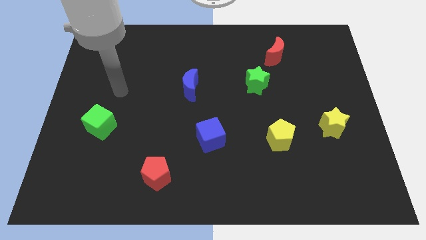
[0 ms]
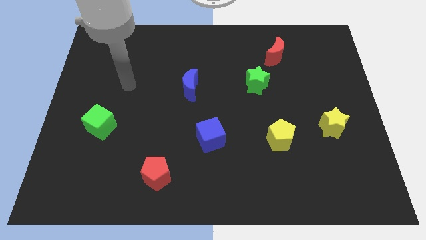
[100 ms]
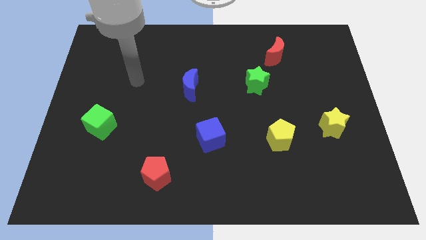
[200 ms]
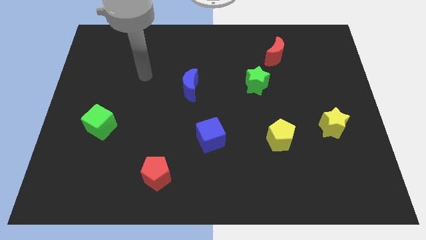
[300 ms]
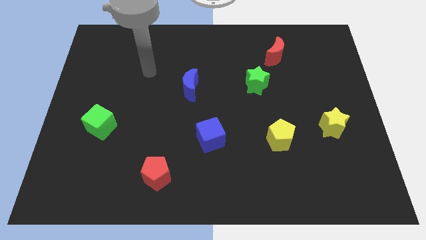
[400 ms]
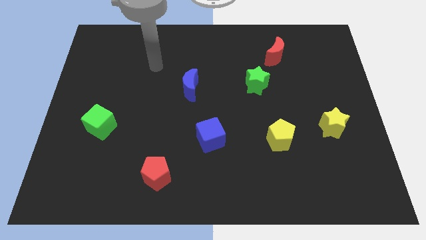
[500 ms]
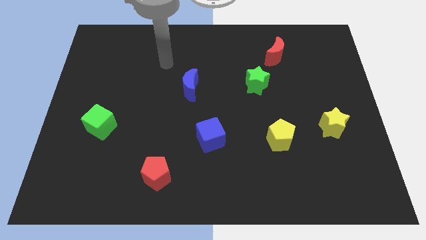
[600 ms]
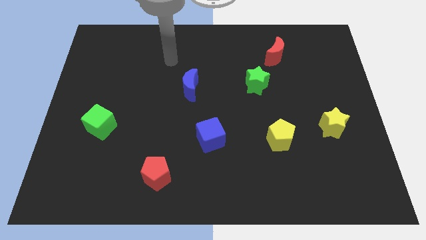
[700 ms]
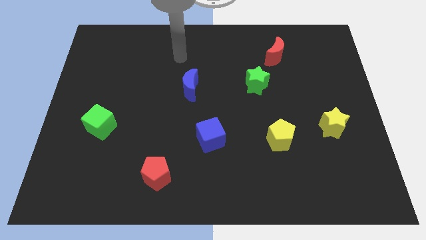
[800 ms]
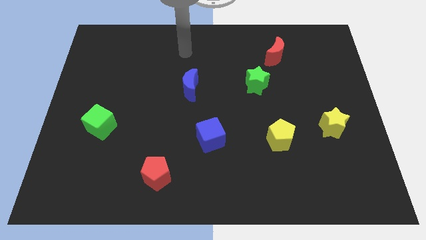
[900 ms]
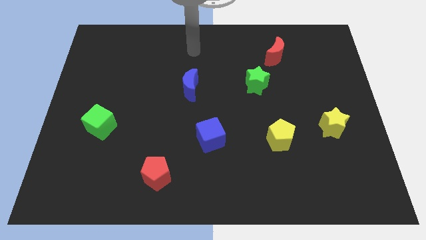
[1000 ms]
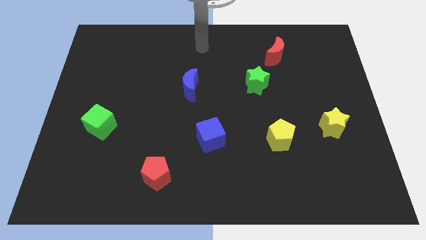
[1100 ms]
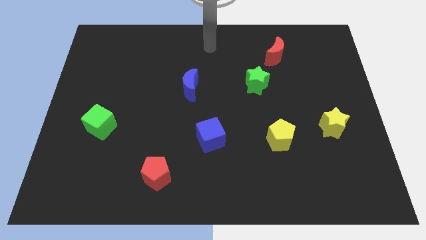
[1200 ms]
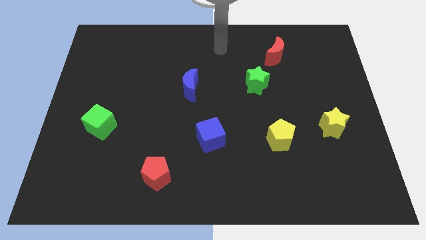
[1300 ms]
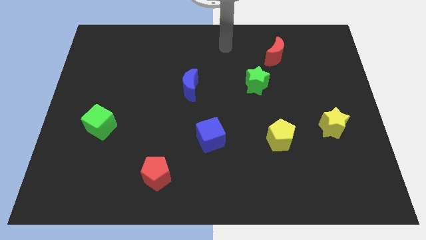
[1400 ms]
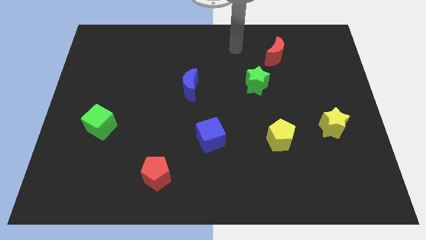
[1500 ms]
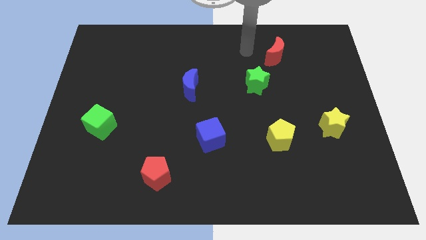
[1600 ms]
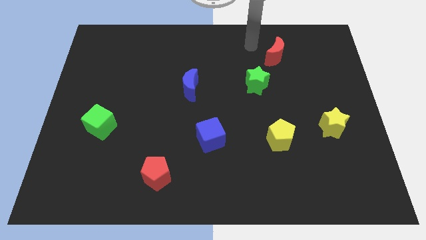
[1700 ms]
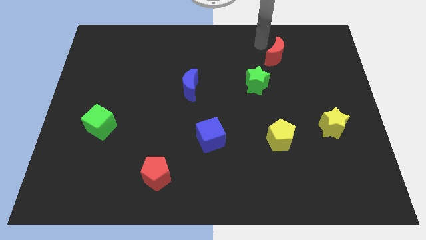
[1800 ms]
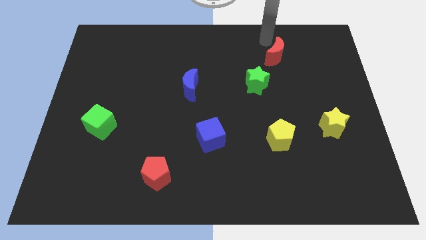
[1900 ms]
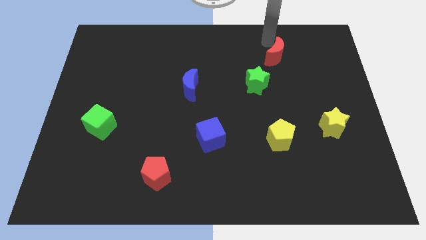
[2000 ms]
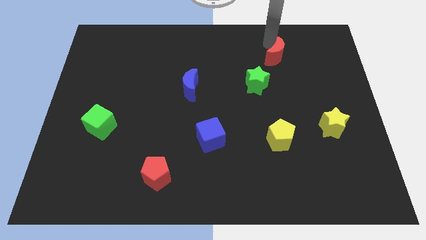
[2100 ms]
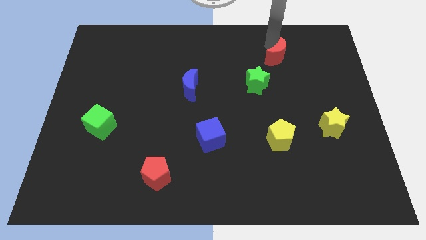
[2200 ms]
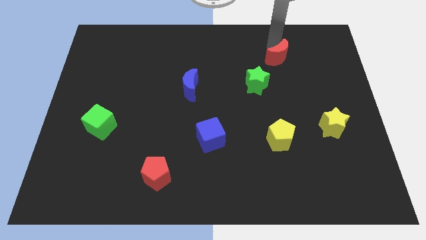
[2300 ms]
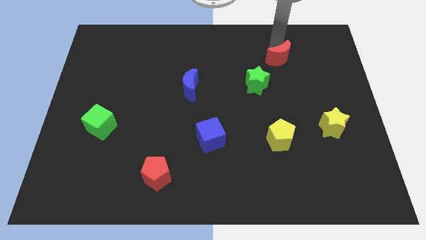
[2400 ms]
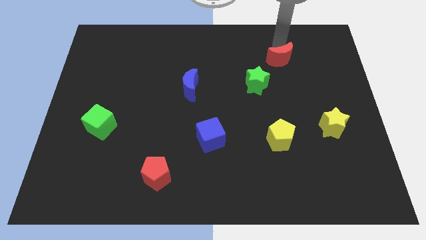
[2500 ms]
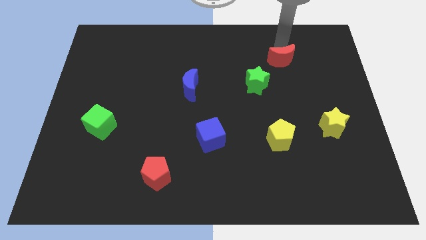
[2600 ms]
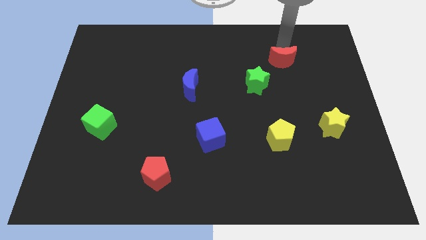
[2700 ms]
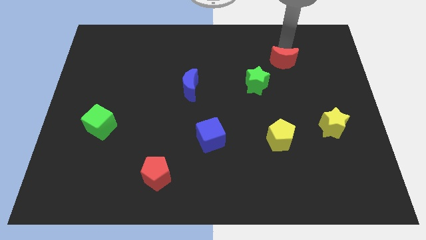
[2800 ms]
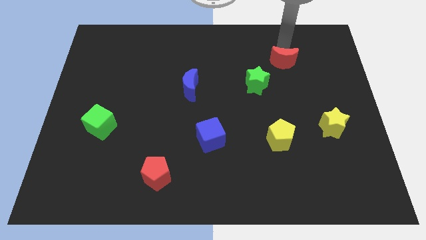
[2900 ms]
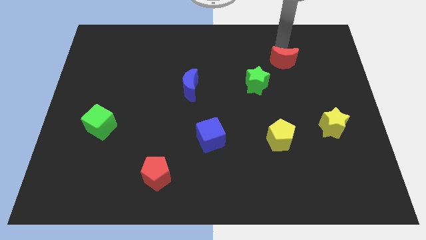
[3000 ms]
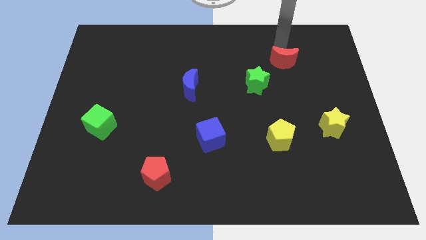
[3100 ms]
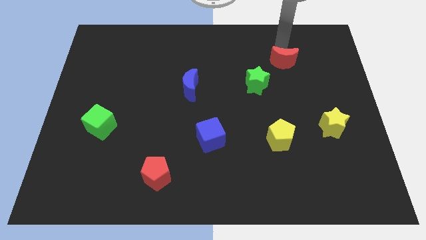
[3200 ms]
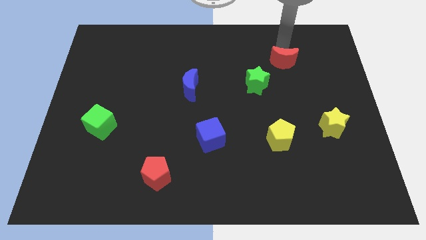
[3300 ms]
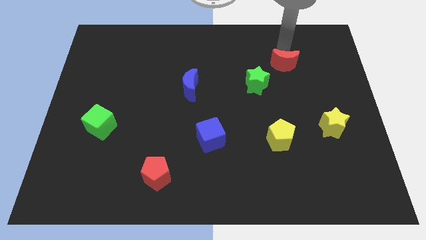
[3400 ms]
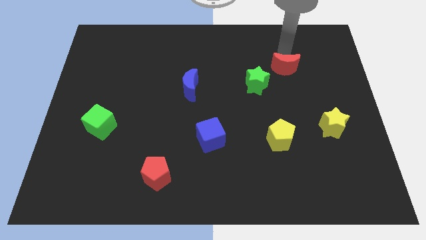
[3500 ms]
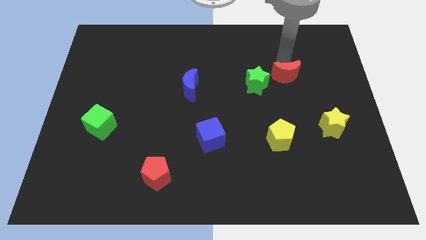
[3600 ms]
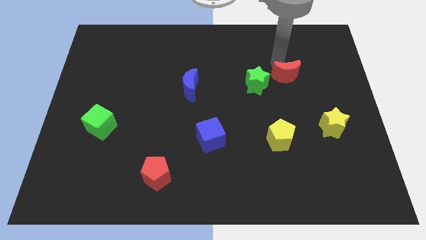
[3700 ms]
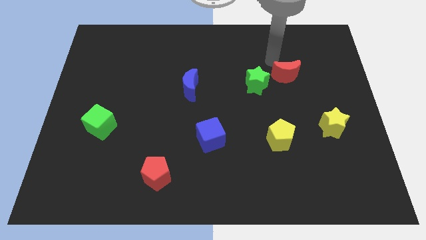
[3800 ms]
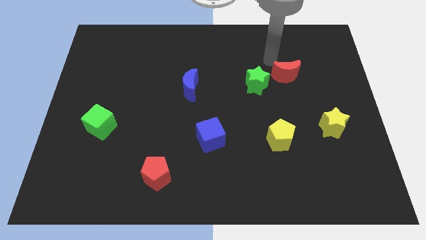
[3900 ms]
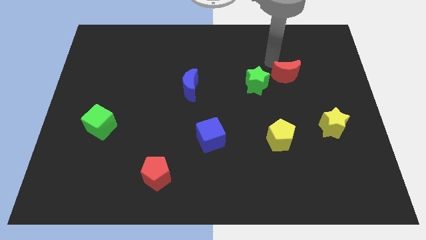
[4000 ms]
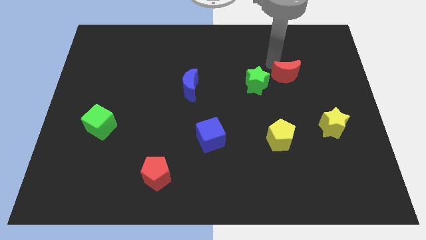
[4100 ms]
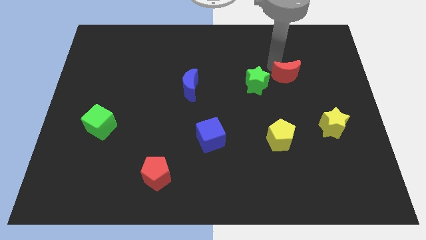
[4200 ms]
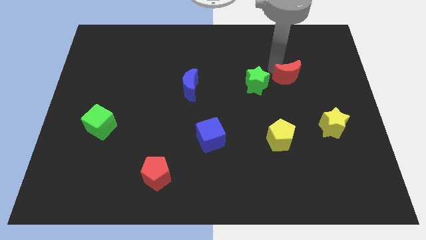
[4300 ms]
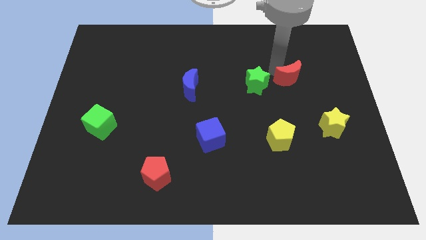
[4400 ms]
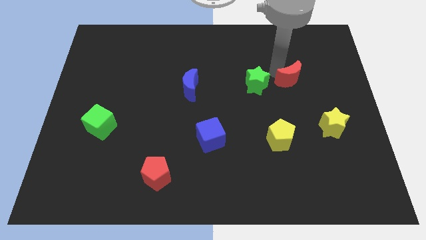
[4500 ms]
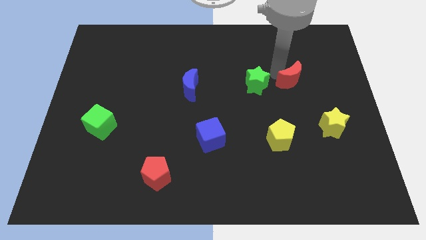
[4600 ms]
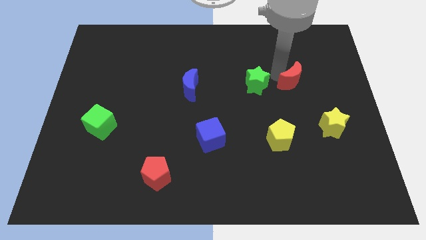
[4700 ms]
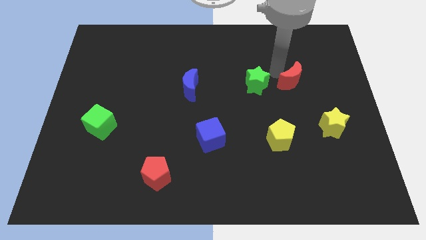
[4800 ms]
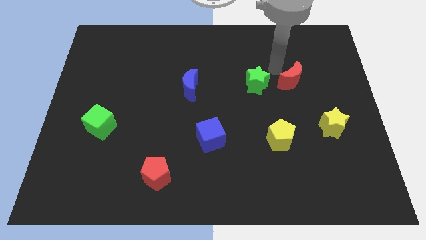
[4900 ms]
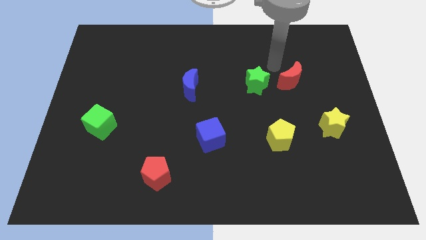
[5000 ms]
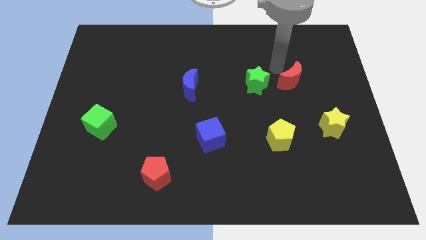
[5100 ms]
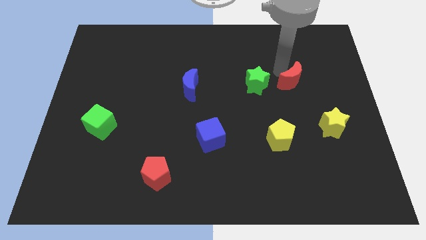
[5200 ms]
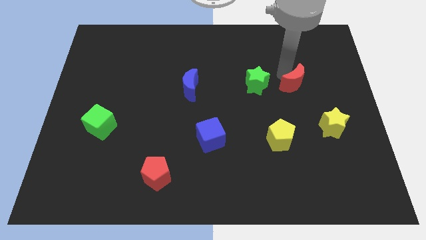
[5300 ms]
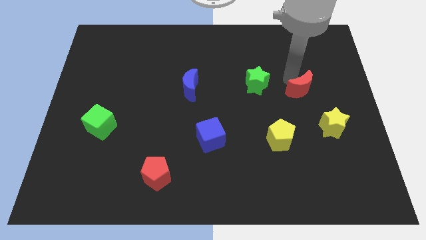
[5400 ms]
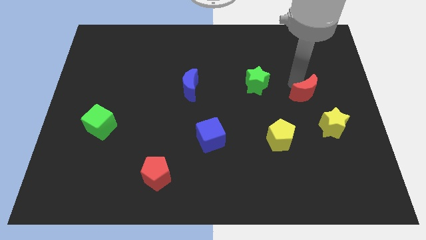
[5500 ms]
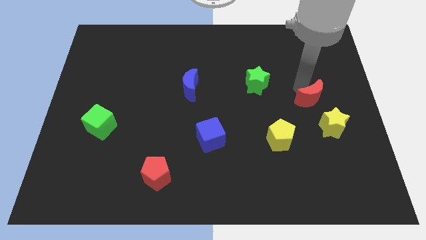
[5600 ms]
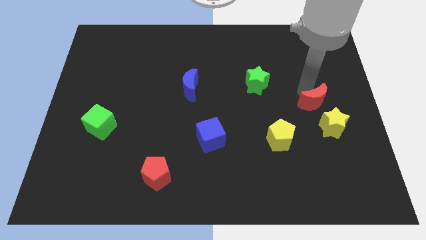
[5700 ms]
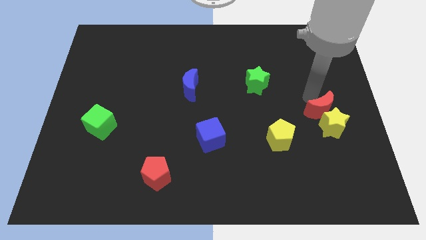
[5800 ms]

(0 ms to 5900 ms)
put the red moon next to the yellow star

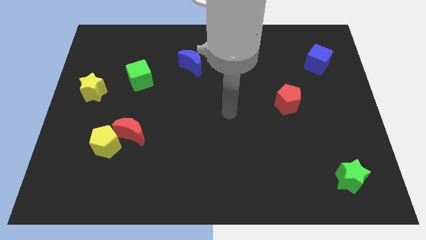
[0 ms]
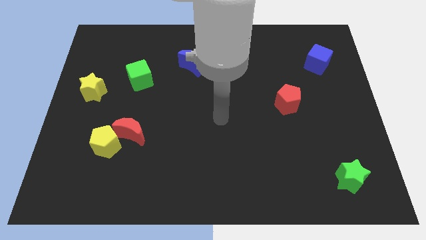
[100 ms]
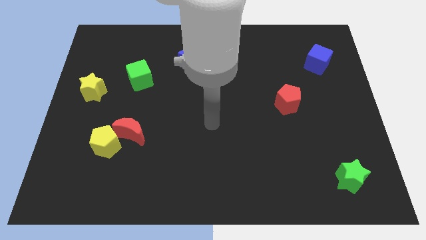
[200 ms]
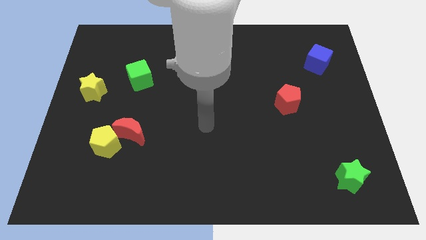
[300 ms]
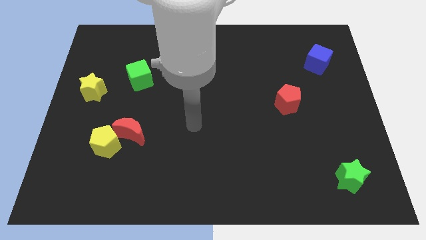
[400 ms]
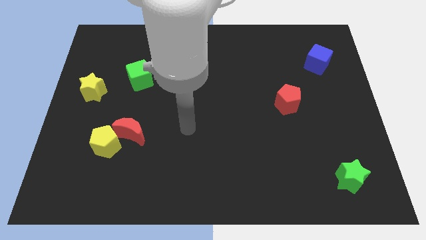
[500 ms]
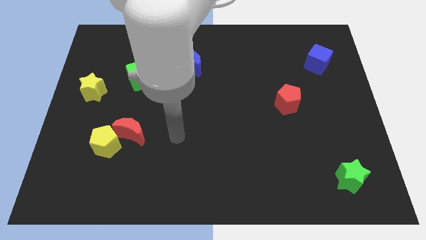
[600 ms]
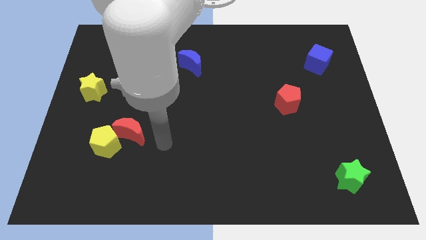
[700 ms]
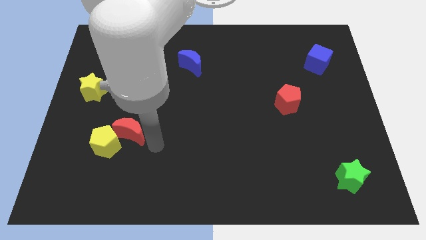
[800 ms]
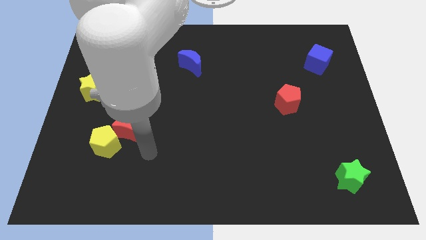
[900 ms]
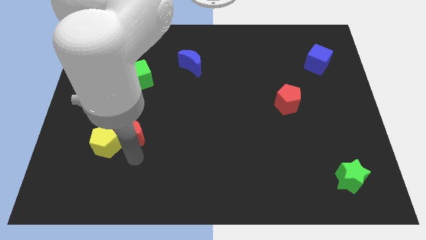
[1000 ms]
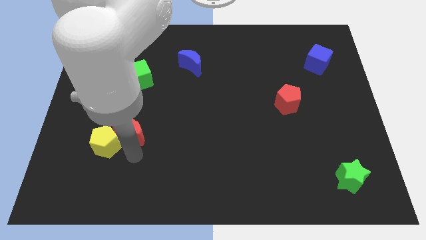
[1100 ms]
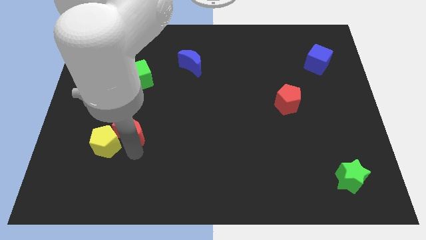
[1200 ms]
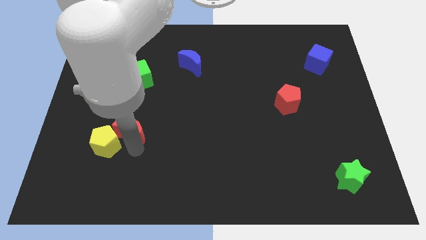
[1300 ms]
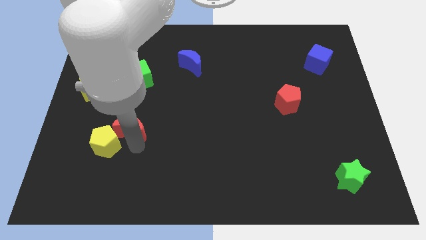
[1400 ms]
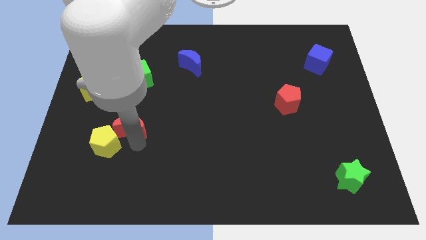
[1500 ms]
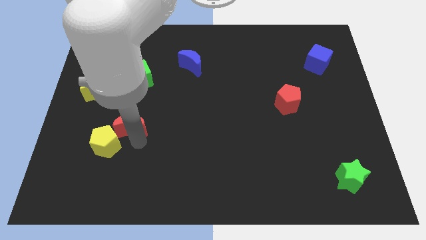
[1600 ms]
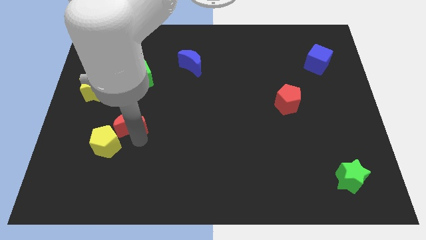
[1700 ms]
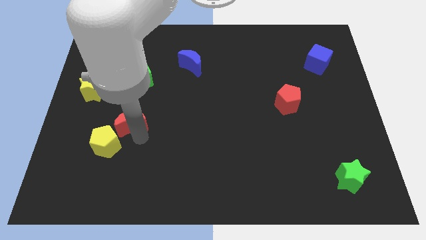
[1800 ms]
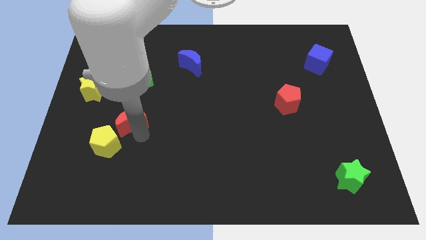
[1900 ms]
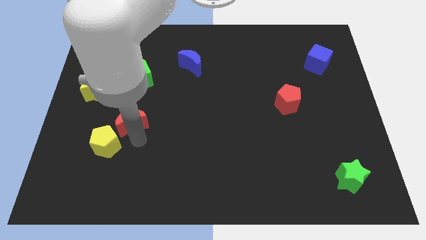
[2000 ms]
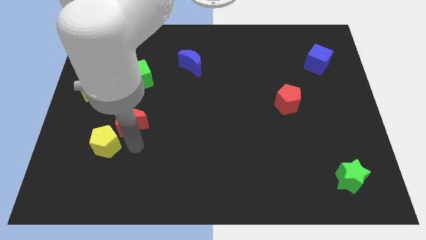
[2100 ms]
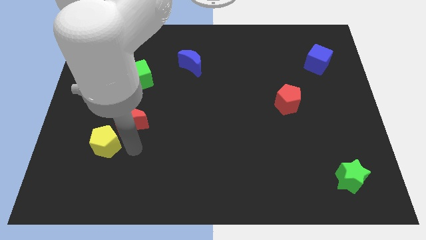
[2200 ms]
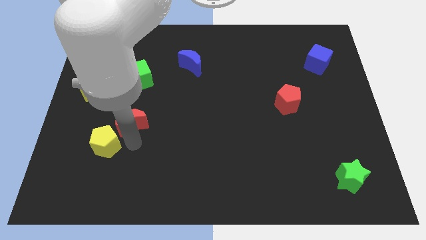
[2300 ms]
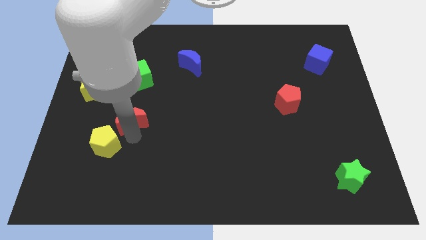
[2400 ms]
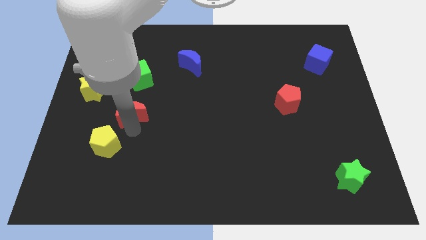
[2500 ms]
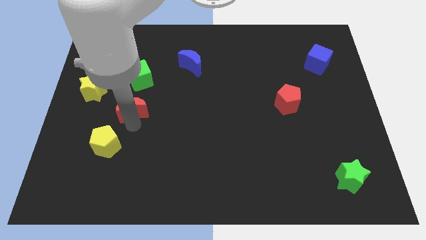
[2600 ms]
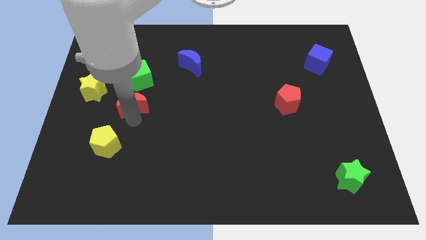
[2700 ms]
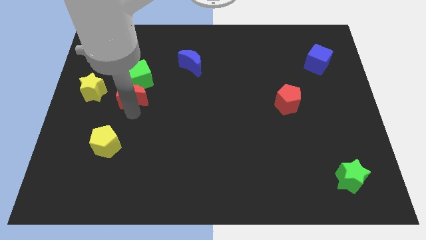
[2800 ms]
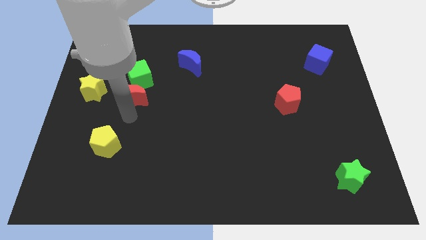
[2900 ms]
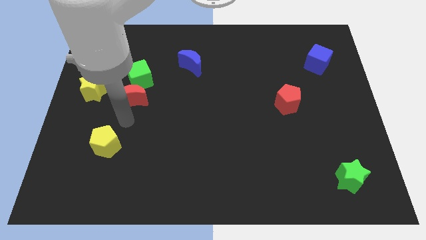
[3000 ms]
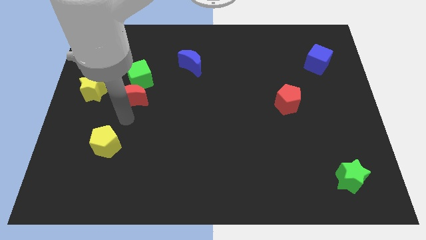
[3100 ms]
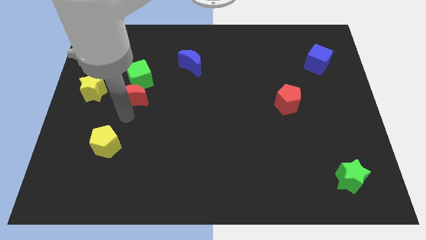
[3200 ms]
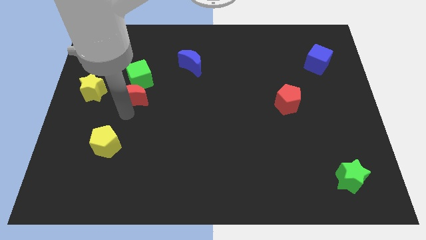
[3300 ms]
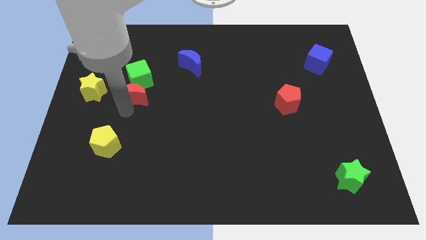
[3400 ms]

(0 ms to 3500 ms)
slide the red moon close to the green cube
